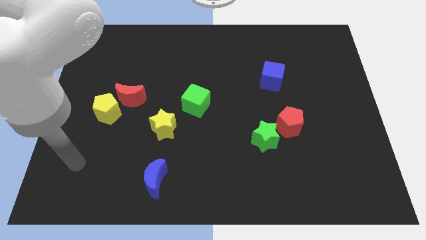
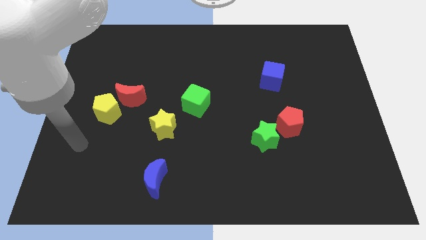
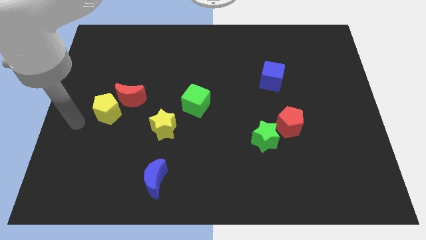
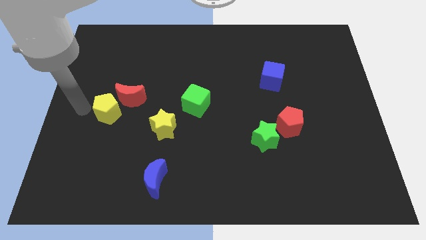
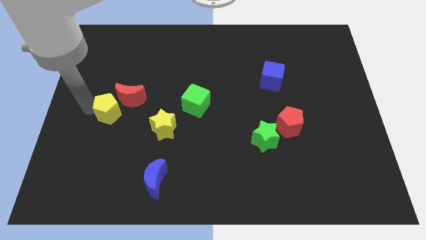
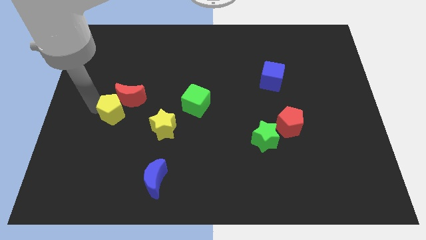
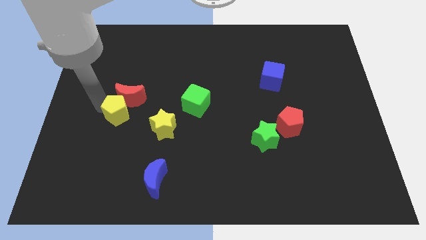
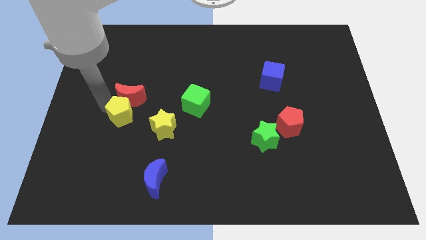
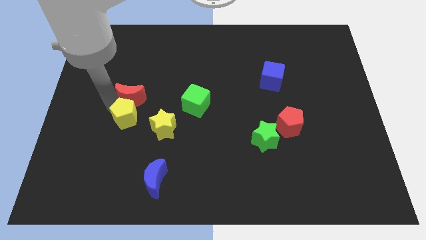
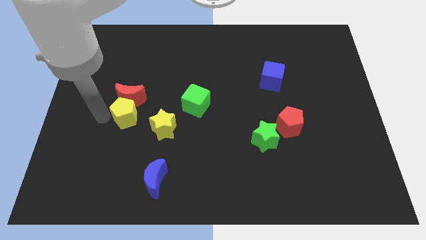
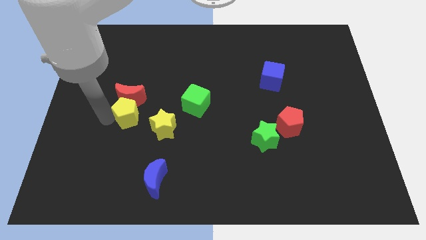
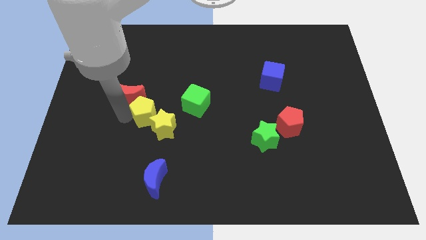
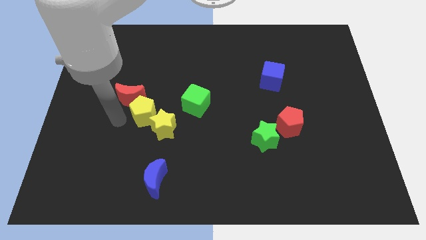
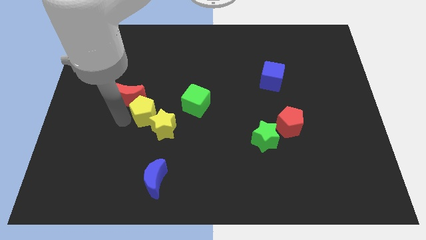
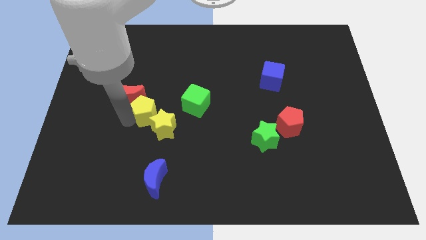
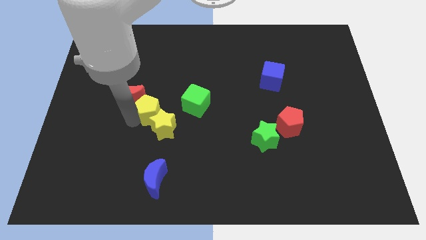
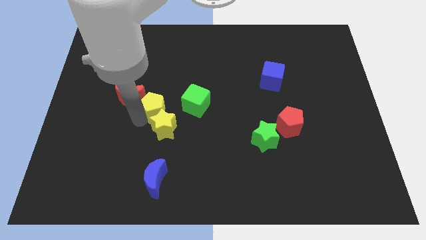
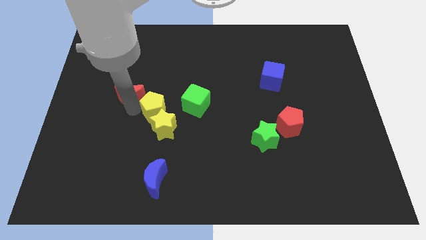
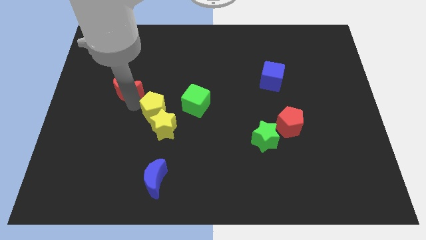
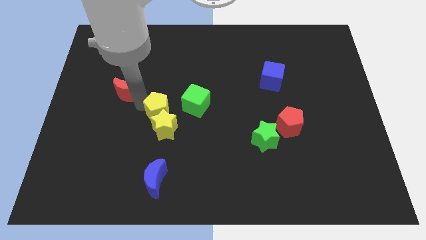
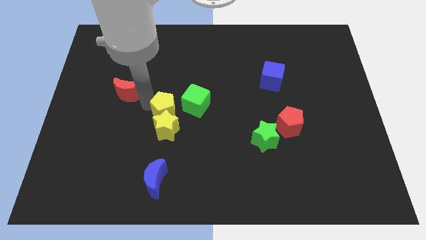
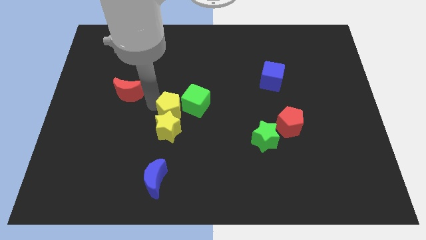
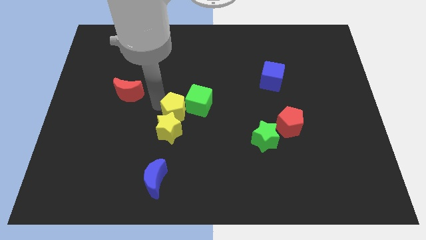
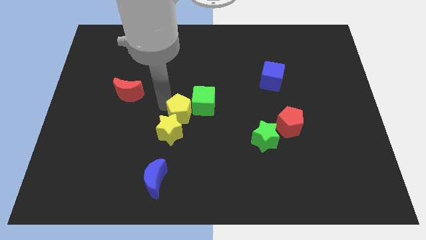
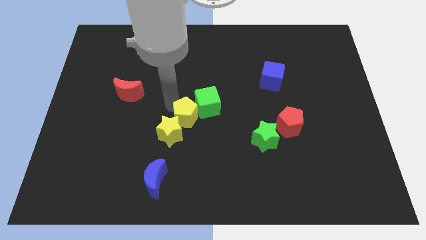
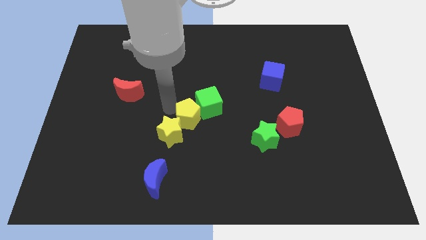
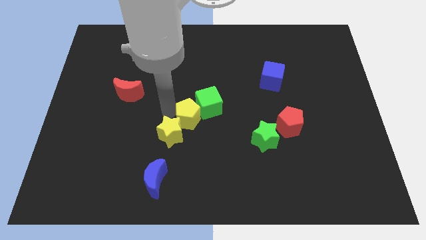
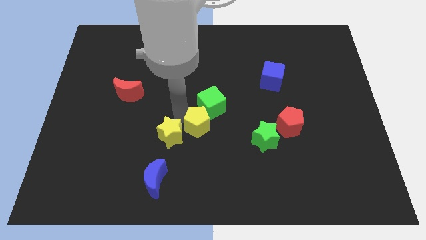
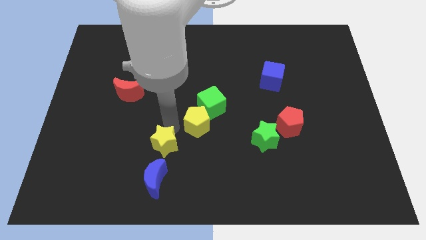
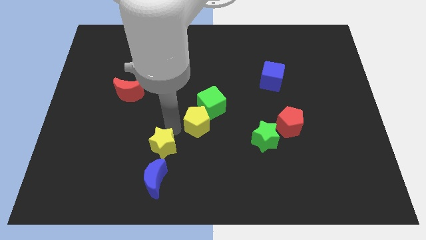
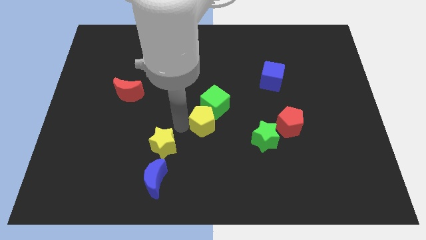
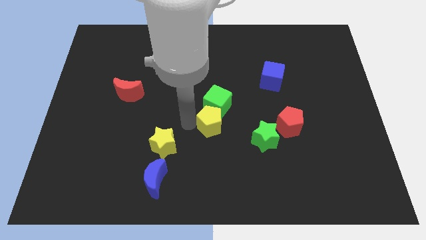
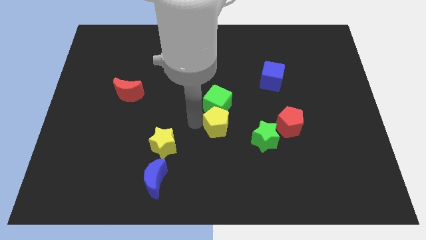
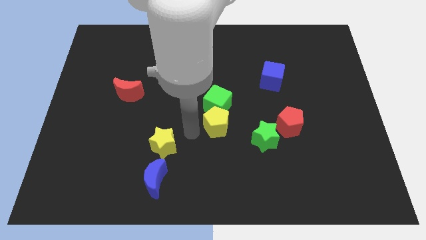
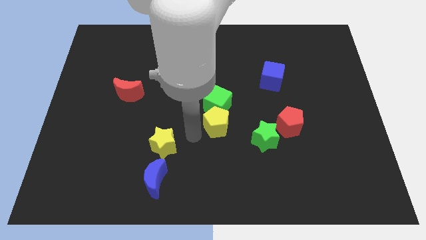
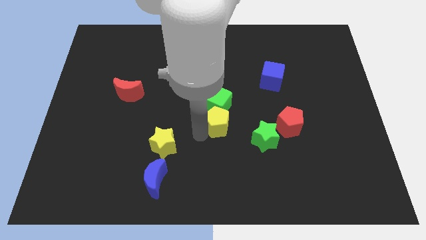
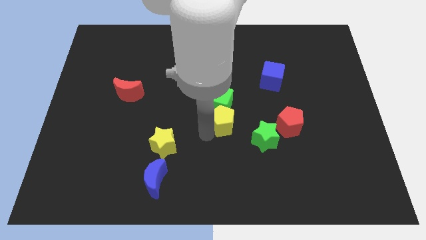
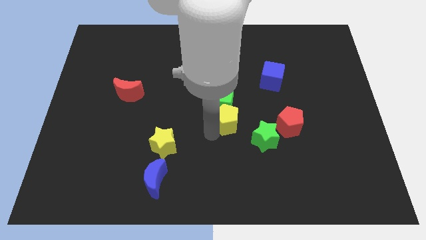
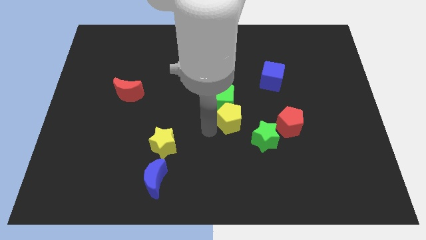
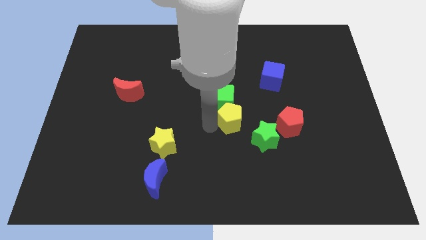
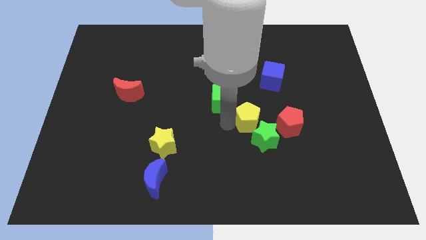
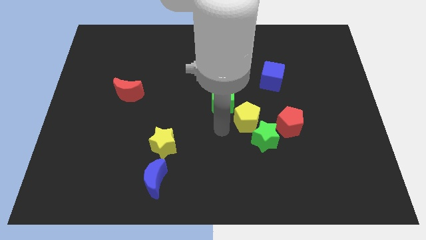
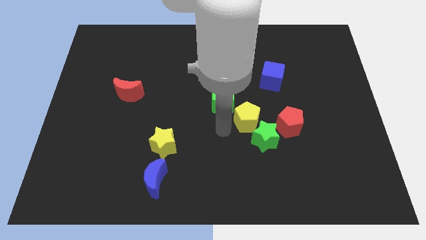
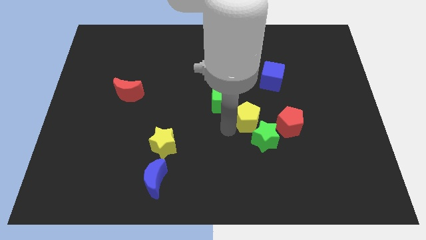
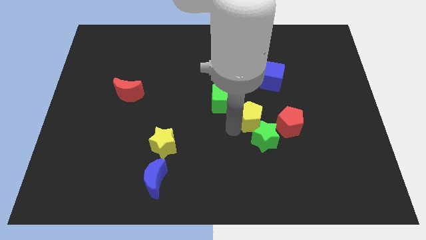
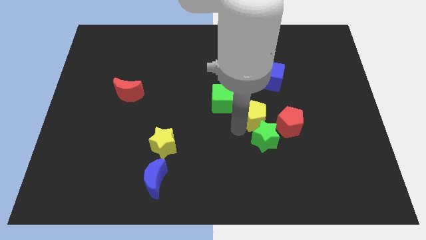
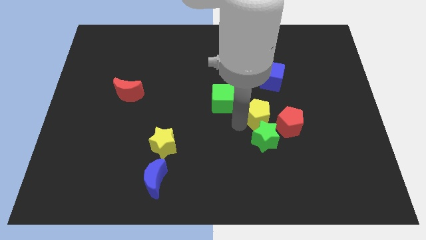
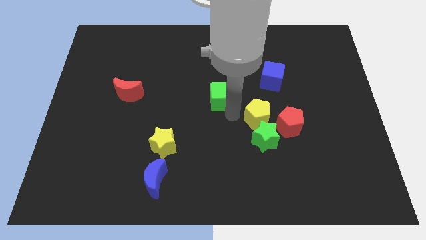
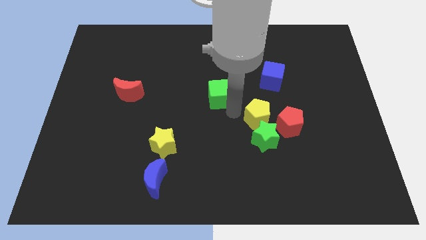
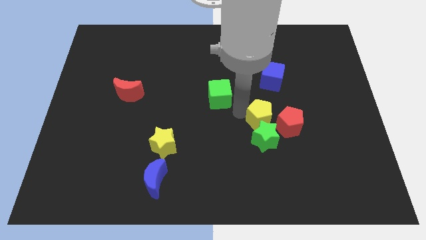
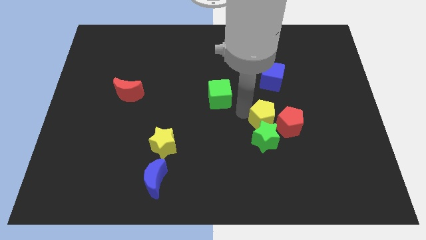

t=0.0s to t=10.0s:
push the yellow pentagon to the red pentagon

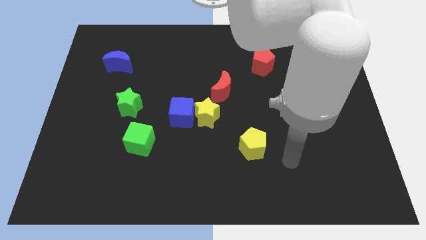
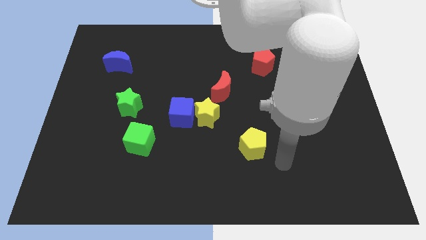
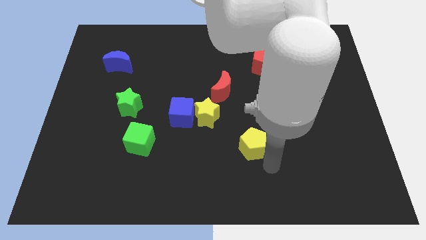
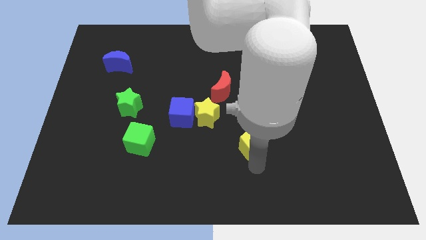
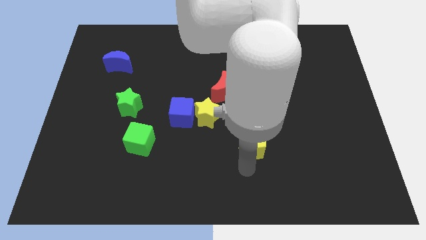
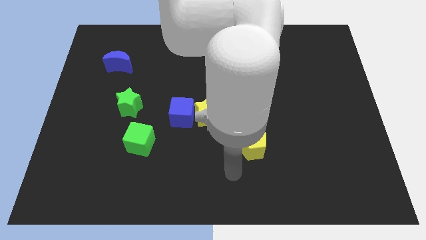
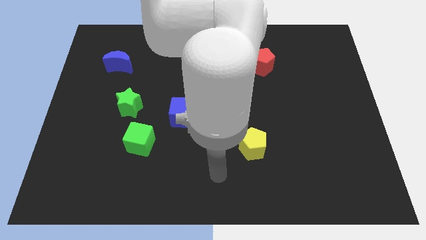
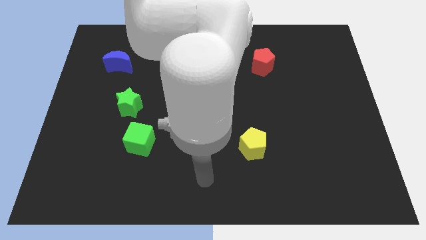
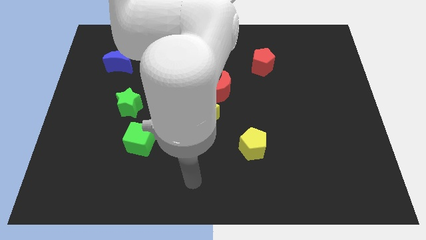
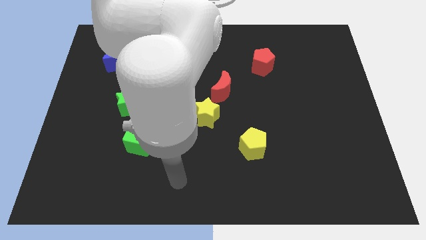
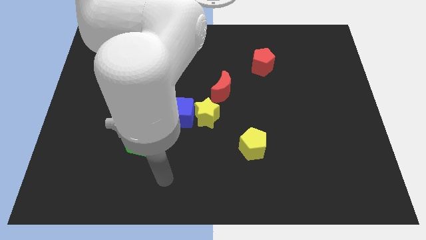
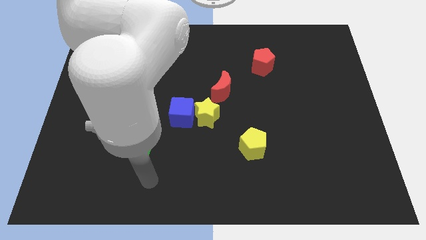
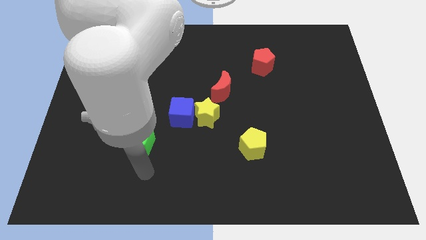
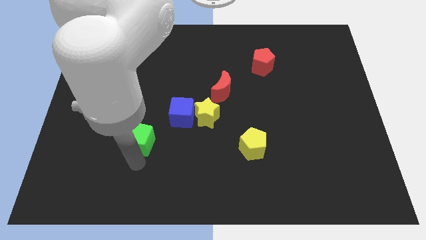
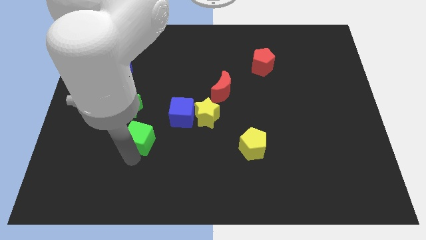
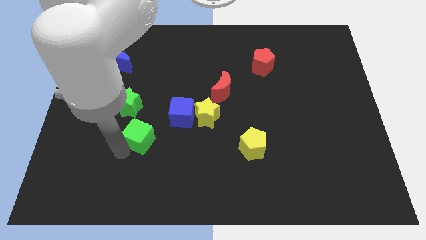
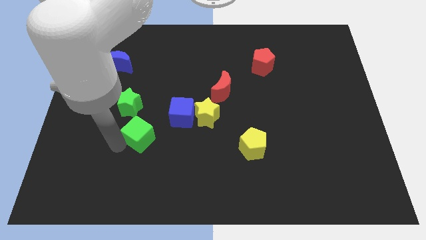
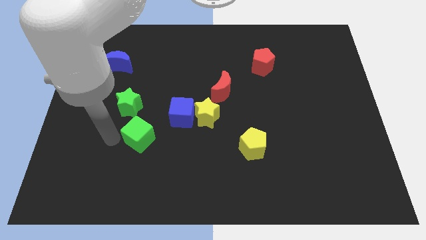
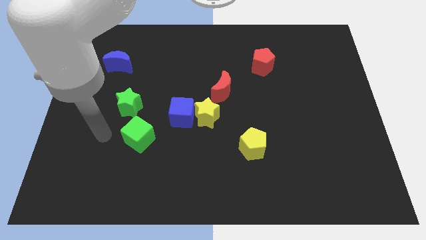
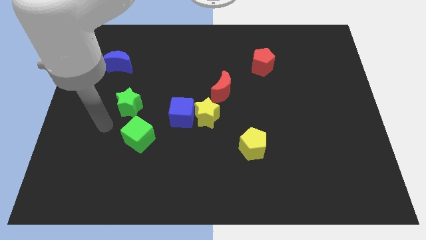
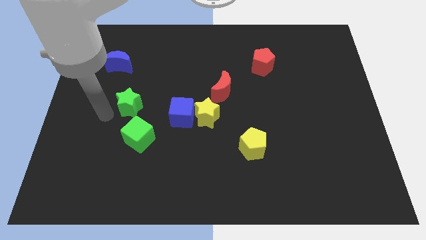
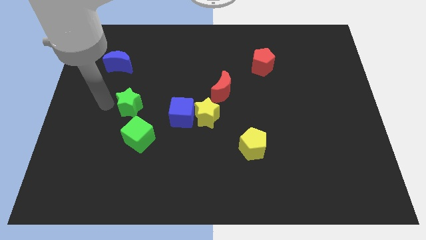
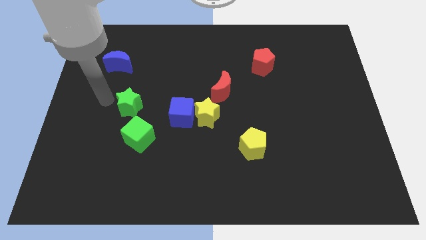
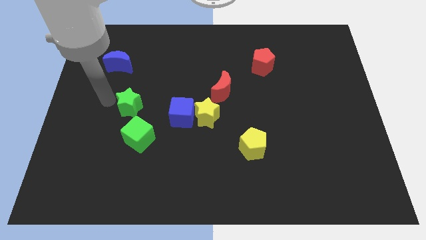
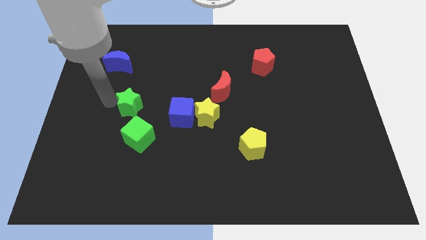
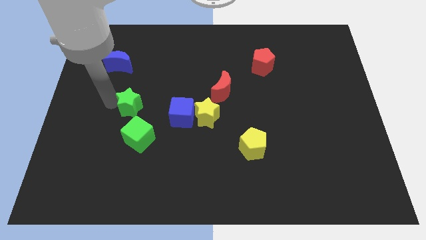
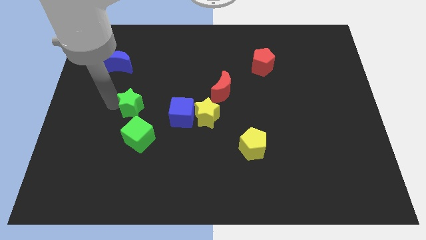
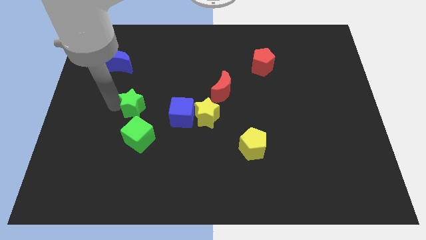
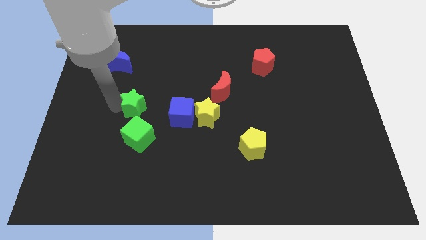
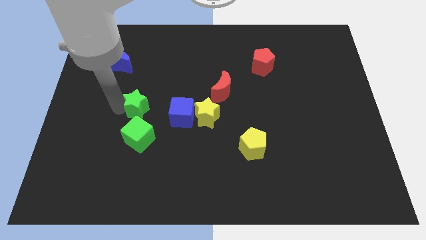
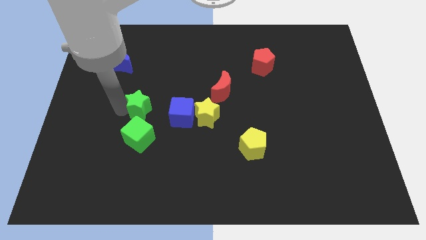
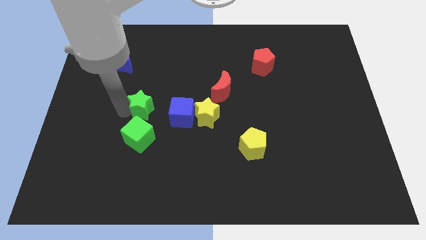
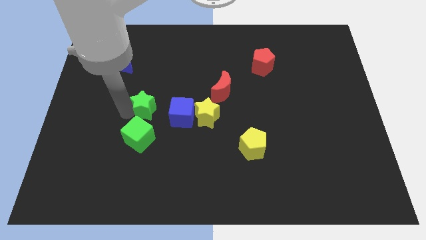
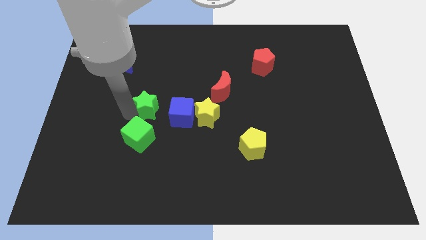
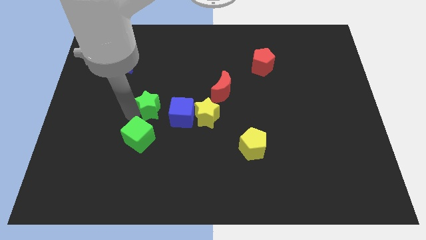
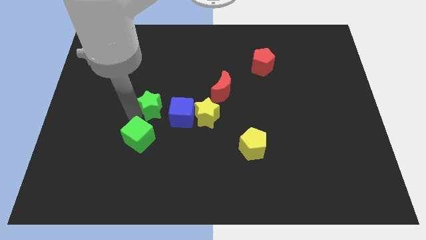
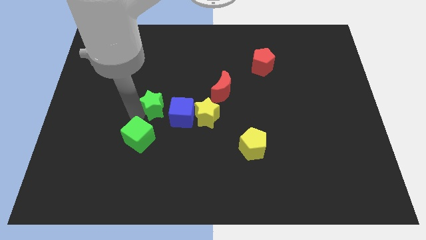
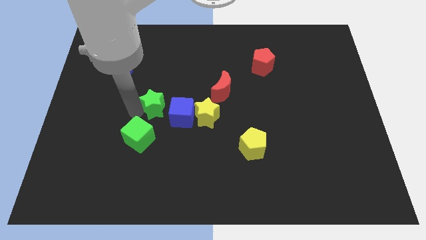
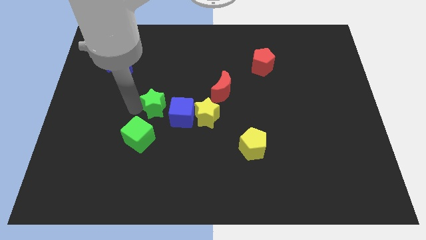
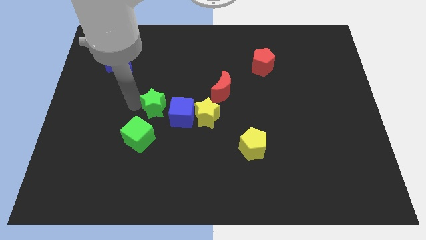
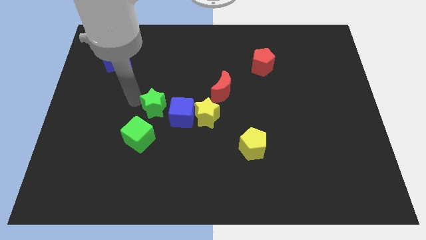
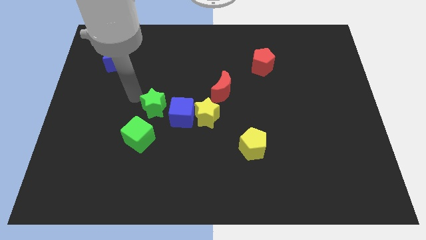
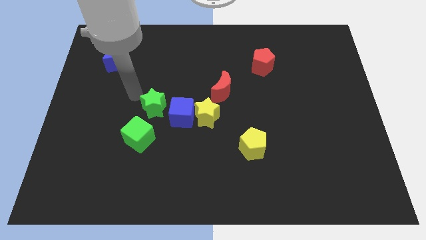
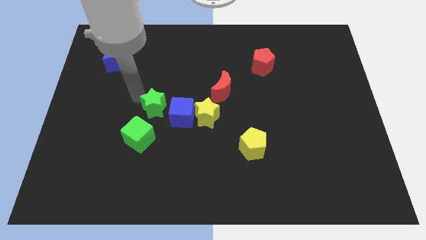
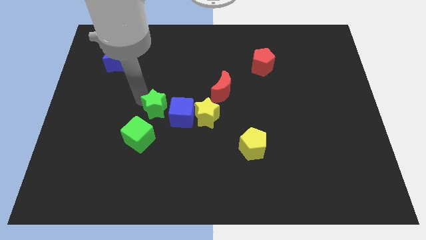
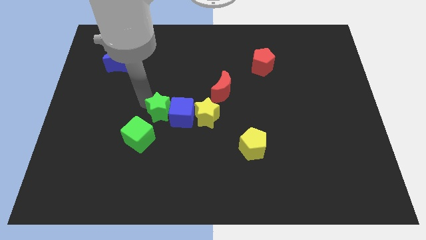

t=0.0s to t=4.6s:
put the green star close to the blue cube
